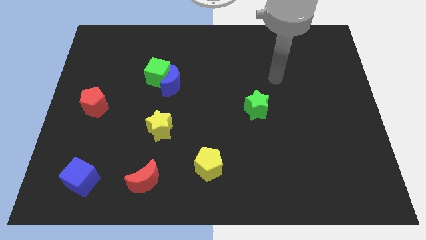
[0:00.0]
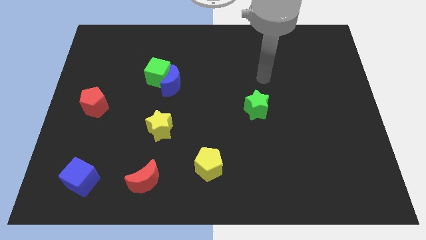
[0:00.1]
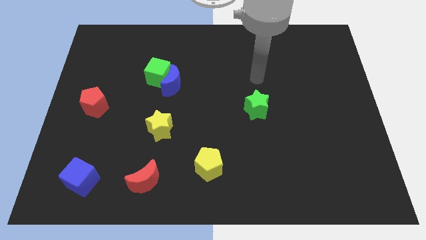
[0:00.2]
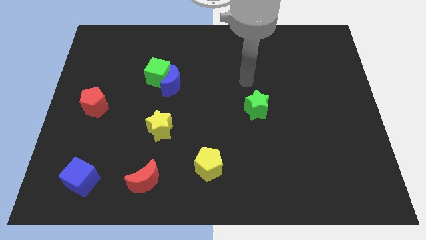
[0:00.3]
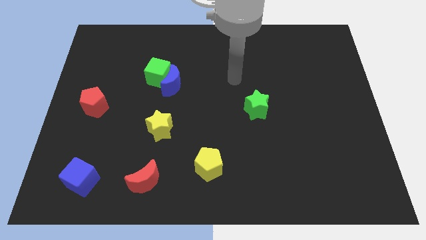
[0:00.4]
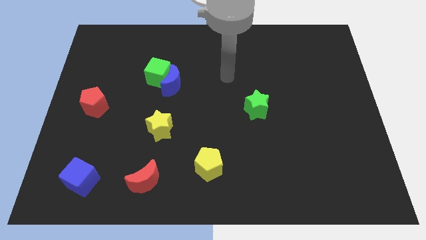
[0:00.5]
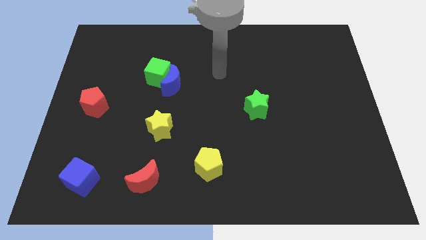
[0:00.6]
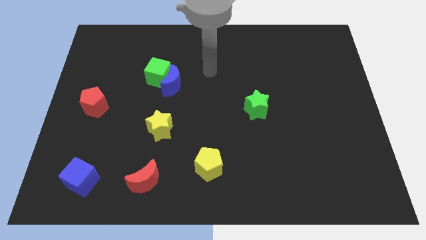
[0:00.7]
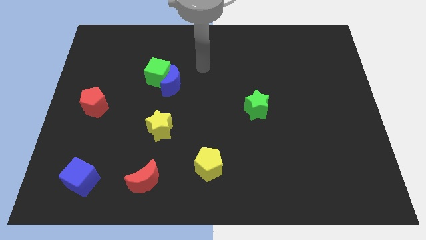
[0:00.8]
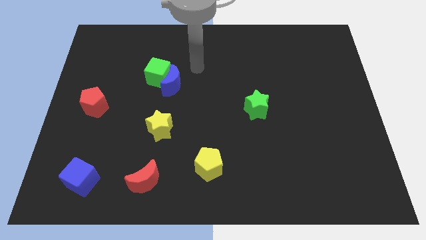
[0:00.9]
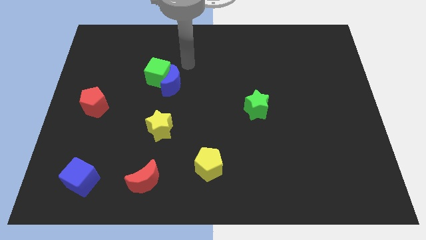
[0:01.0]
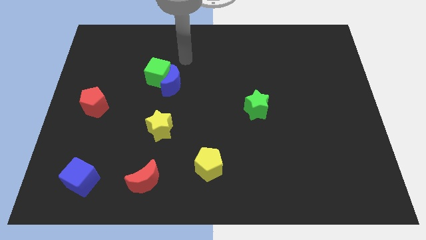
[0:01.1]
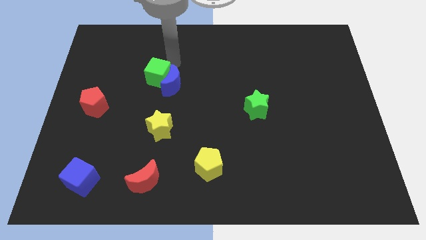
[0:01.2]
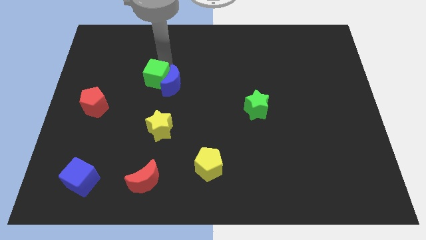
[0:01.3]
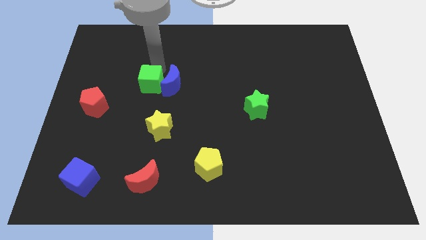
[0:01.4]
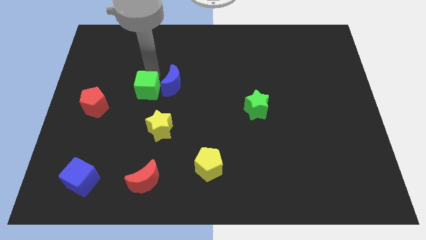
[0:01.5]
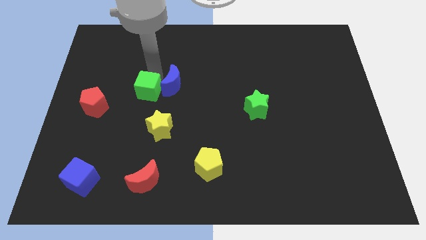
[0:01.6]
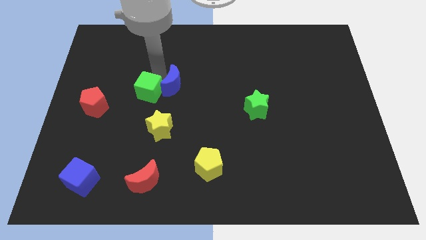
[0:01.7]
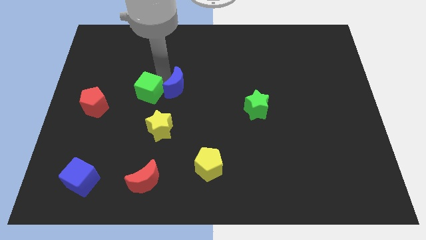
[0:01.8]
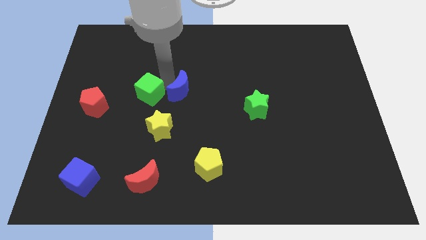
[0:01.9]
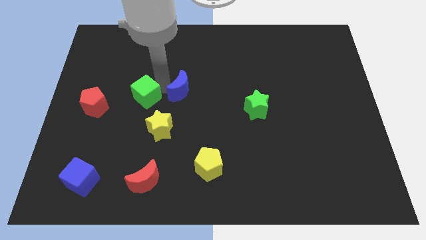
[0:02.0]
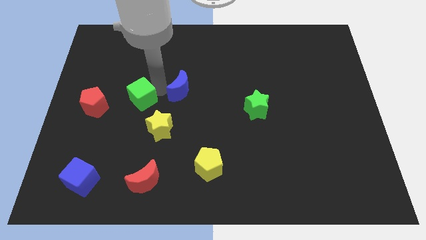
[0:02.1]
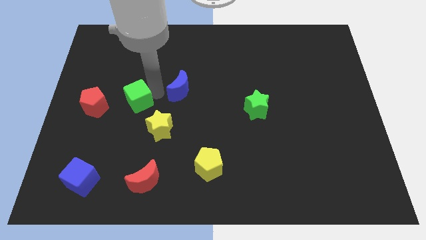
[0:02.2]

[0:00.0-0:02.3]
pull the blue moon apart from the green cube

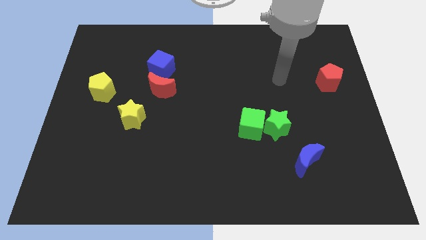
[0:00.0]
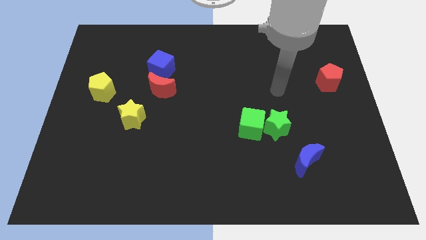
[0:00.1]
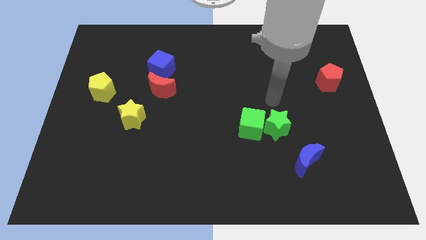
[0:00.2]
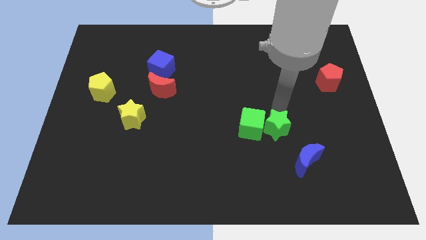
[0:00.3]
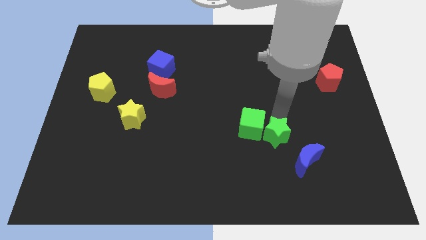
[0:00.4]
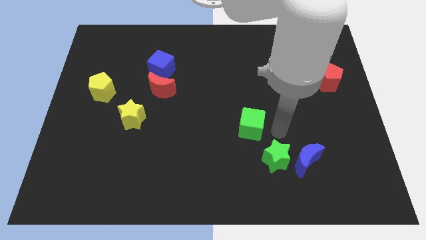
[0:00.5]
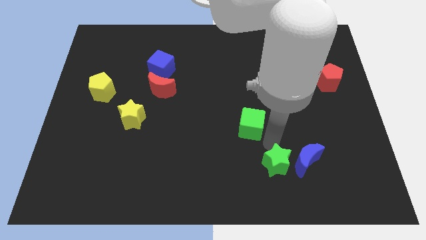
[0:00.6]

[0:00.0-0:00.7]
pull the green cube apart from the green star

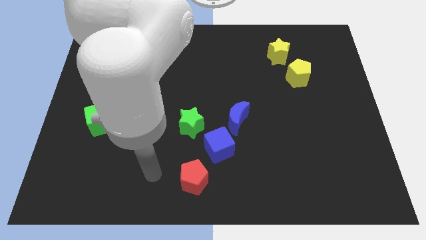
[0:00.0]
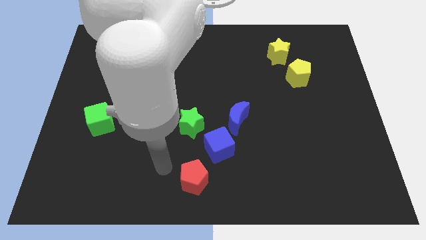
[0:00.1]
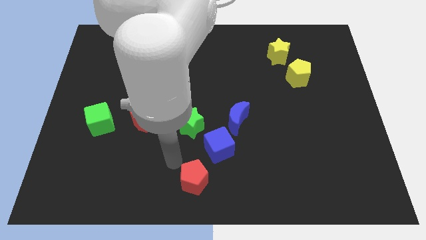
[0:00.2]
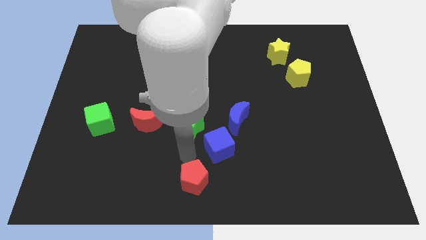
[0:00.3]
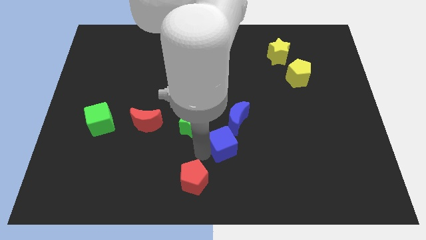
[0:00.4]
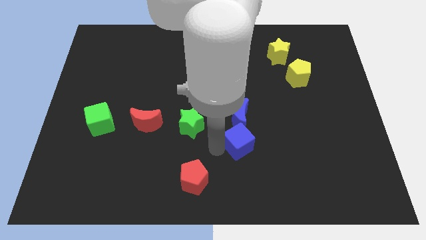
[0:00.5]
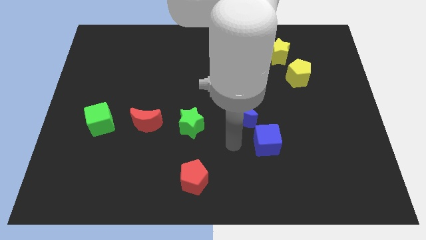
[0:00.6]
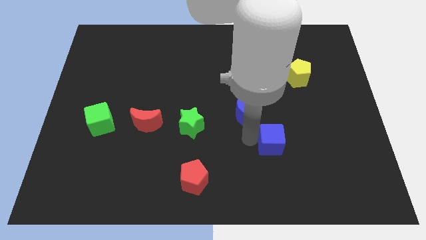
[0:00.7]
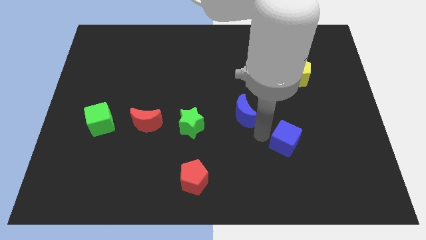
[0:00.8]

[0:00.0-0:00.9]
pull the blue moon apart from the blue cube

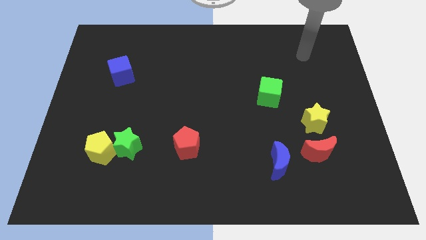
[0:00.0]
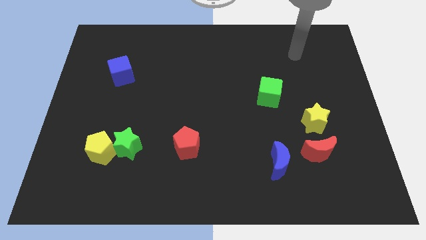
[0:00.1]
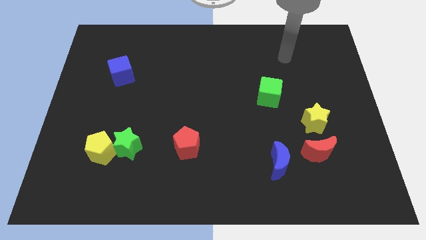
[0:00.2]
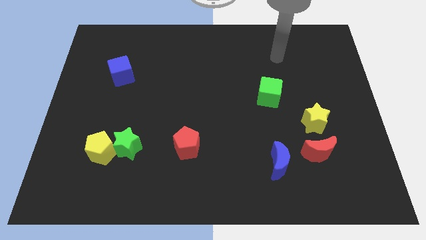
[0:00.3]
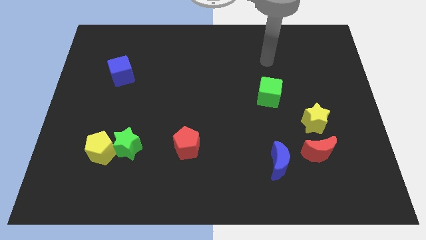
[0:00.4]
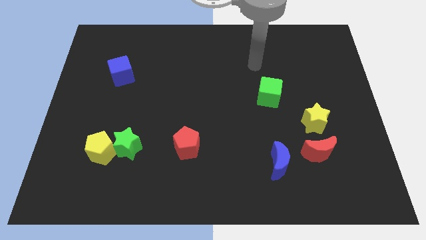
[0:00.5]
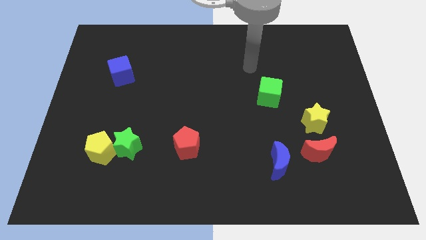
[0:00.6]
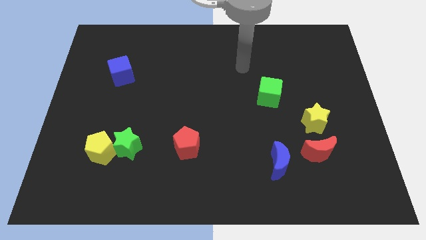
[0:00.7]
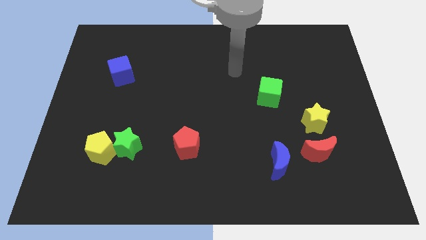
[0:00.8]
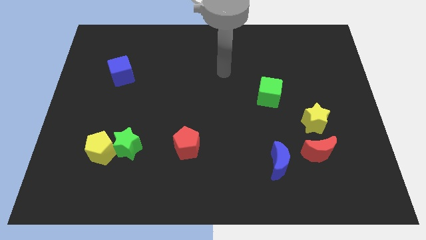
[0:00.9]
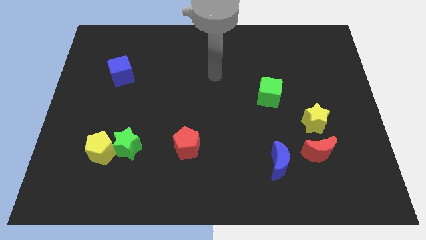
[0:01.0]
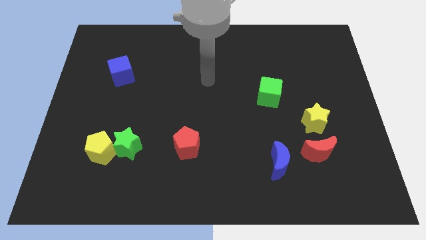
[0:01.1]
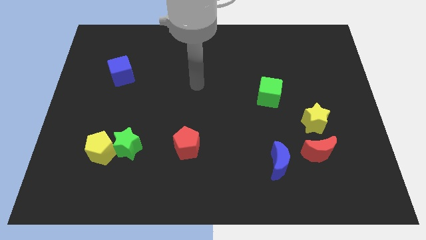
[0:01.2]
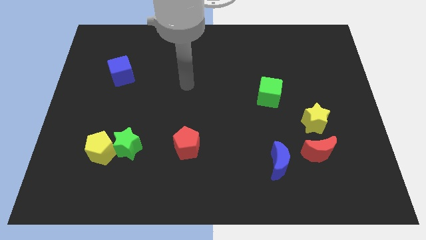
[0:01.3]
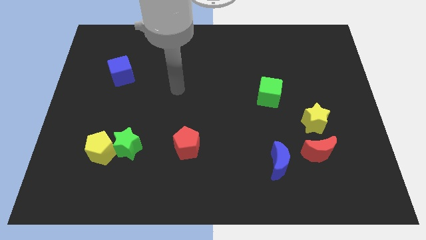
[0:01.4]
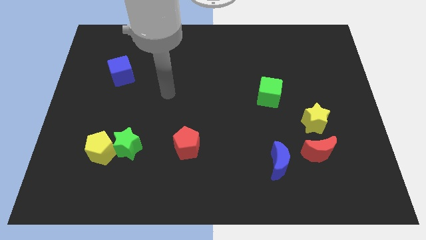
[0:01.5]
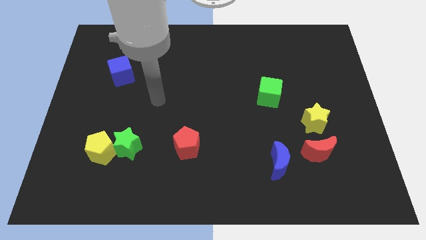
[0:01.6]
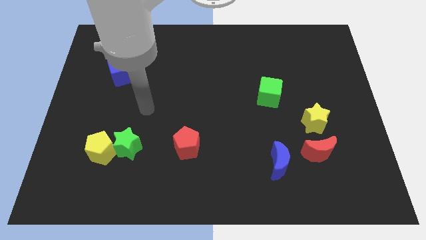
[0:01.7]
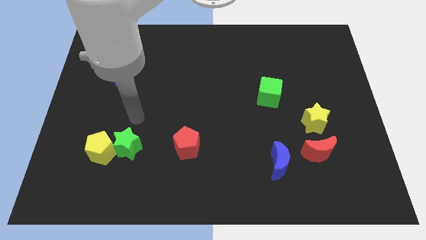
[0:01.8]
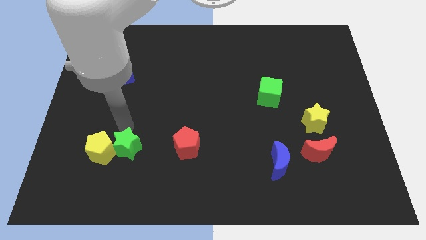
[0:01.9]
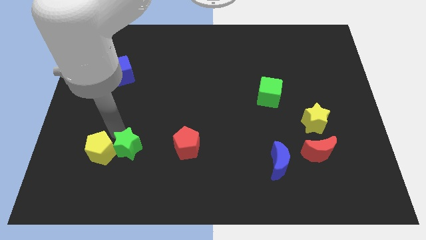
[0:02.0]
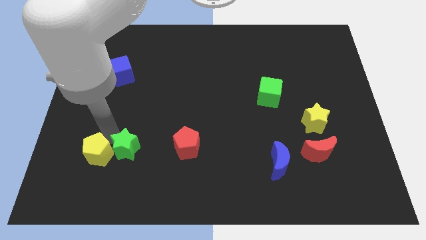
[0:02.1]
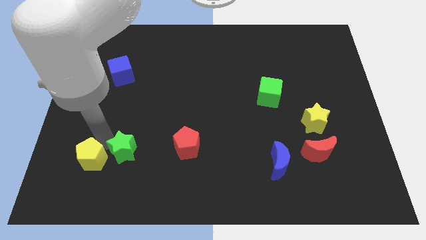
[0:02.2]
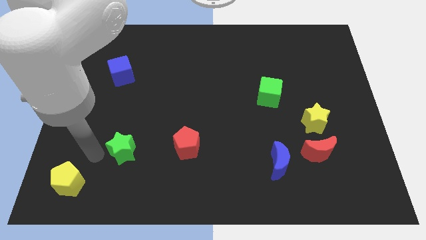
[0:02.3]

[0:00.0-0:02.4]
pull the green star apart from the yellow pentagon

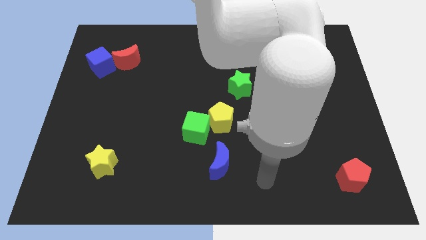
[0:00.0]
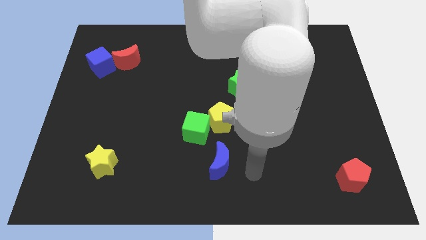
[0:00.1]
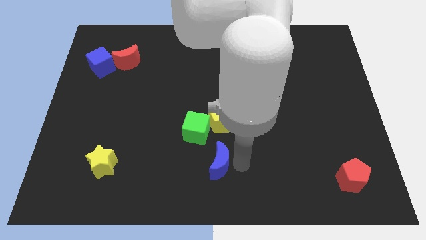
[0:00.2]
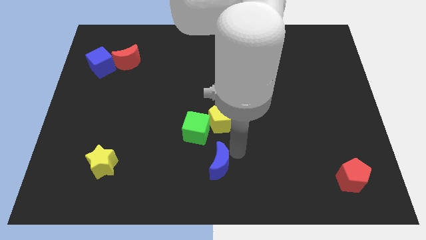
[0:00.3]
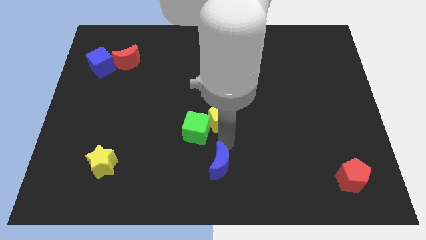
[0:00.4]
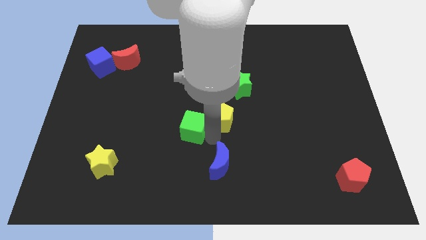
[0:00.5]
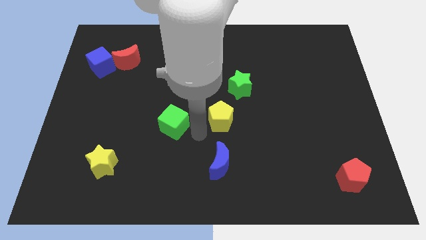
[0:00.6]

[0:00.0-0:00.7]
move the yellow pentagon away from the green cube

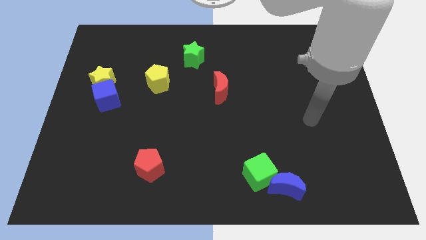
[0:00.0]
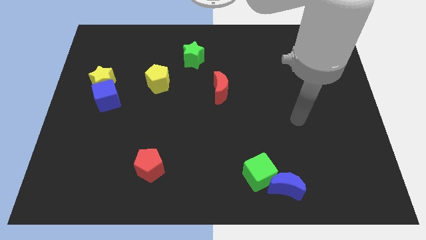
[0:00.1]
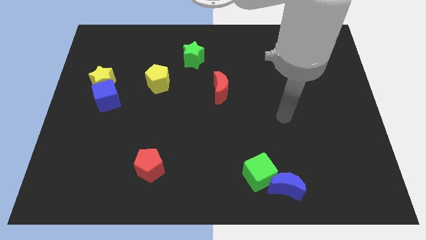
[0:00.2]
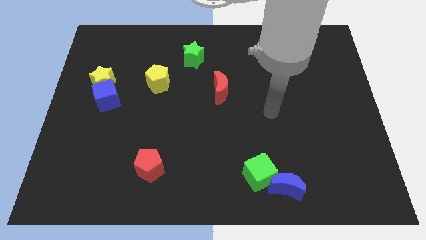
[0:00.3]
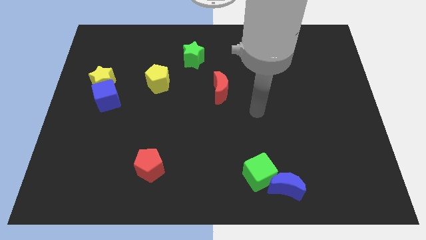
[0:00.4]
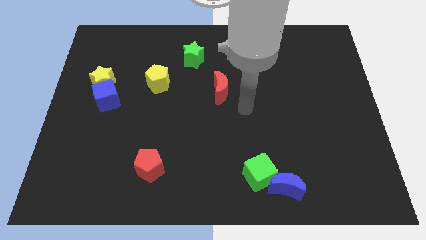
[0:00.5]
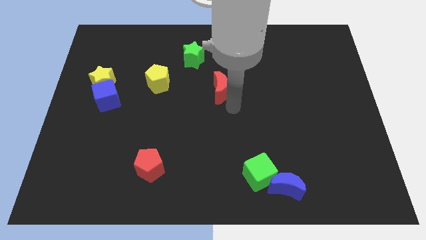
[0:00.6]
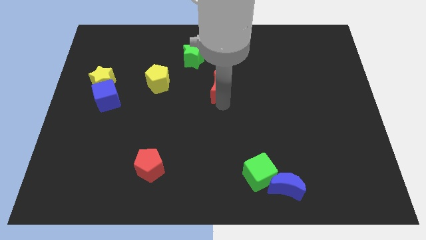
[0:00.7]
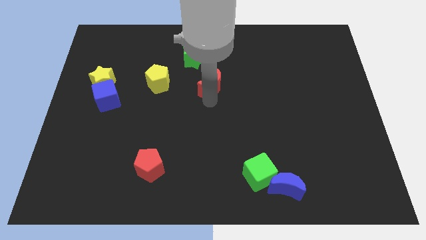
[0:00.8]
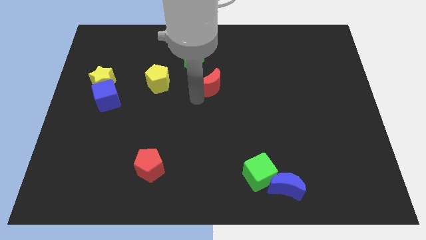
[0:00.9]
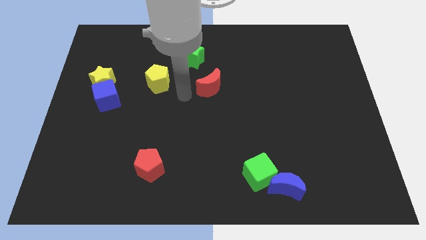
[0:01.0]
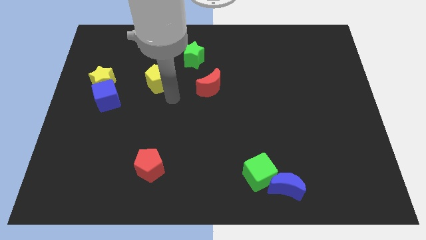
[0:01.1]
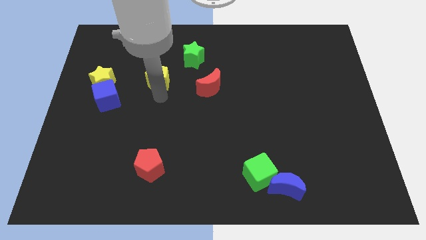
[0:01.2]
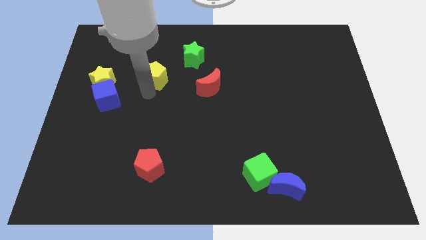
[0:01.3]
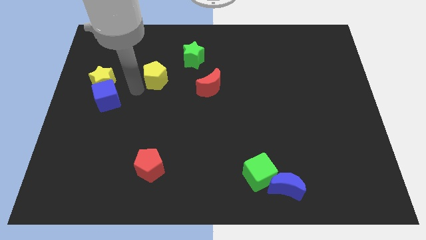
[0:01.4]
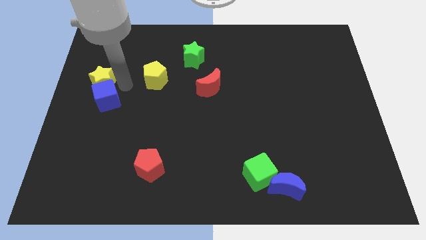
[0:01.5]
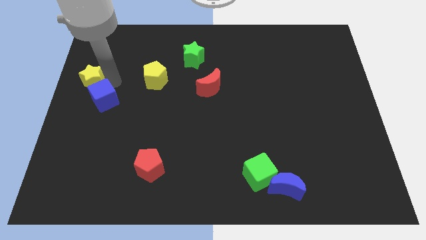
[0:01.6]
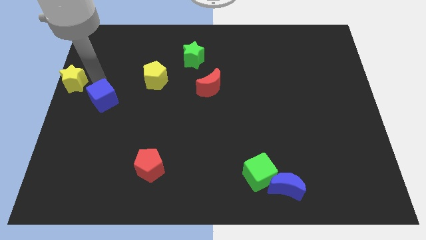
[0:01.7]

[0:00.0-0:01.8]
move the blue cube away from the yellow star

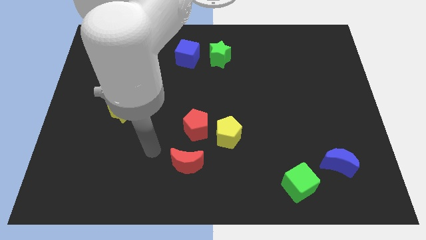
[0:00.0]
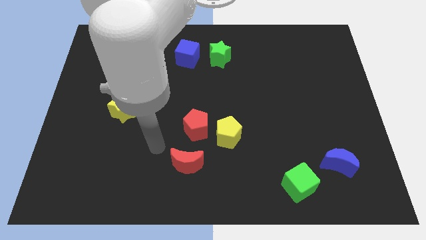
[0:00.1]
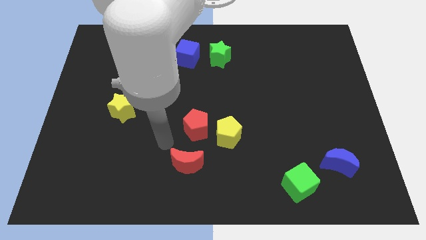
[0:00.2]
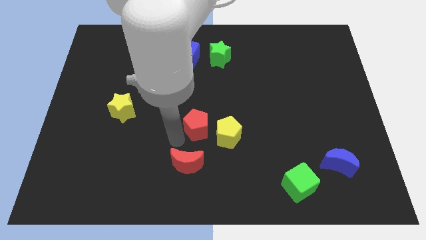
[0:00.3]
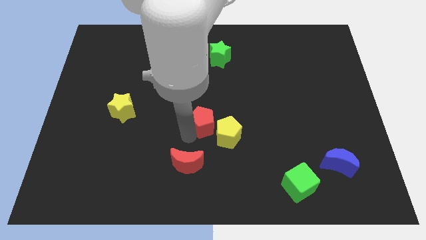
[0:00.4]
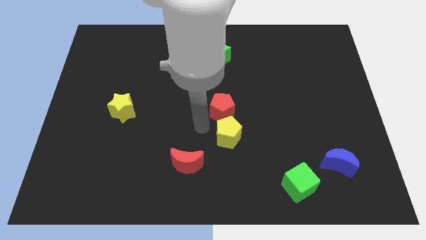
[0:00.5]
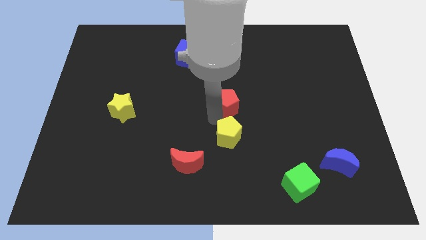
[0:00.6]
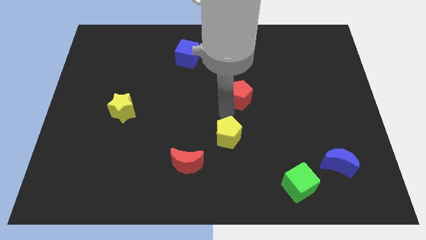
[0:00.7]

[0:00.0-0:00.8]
pull the yellow pentagon apart from the red pentagon
